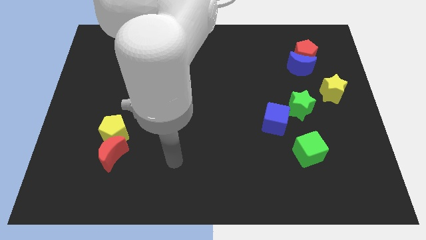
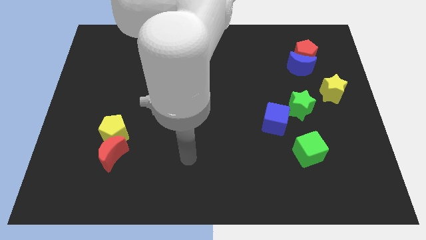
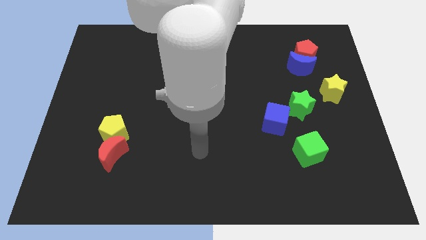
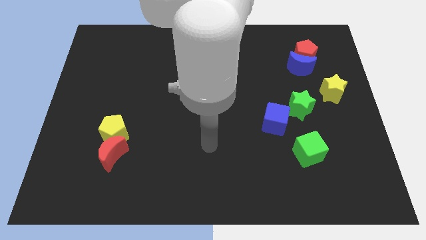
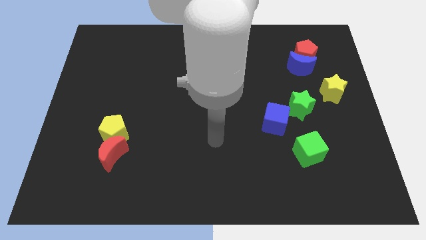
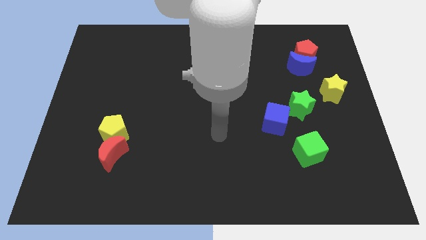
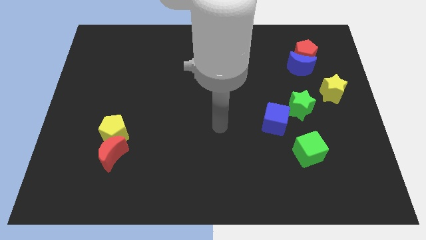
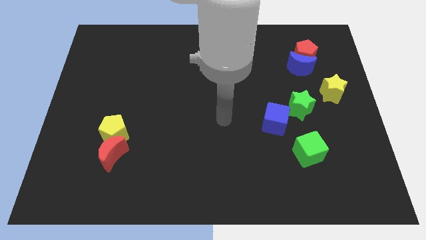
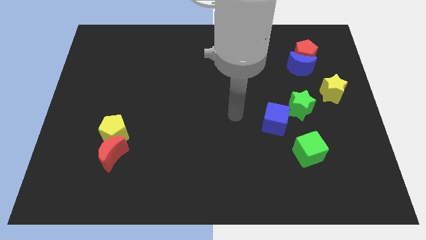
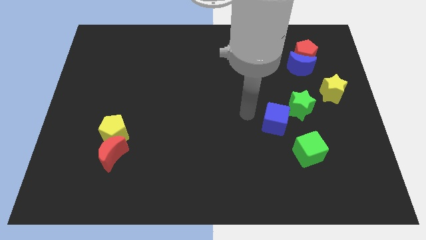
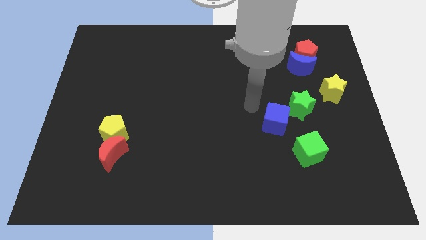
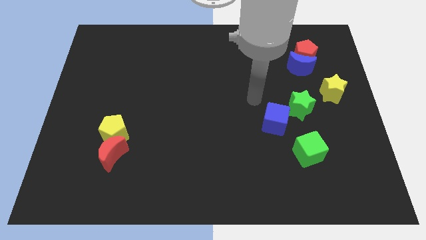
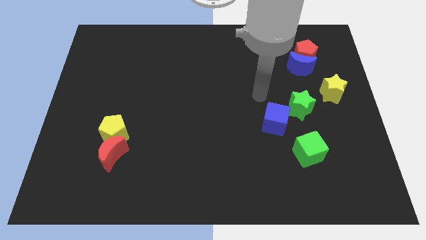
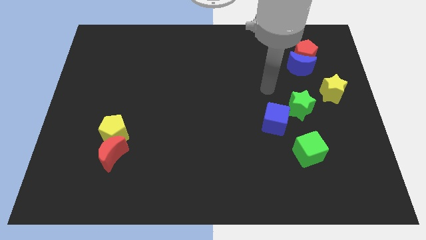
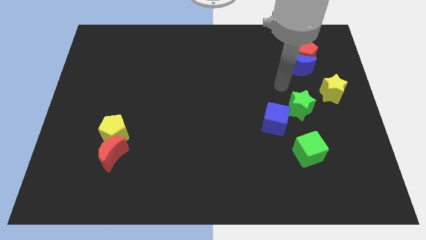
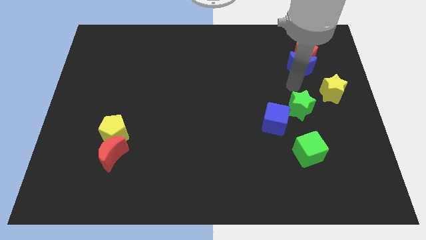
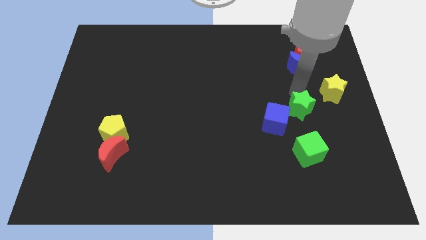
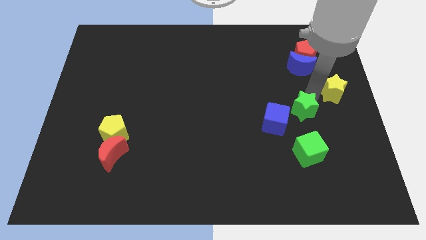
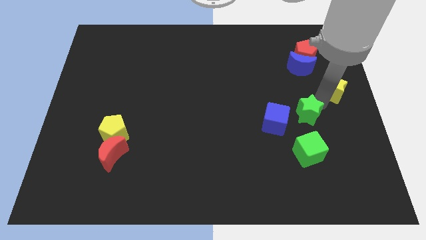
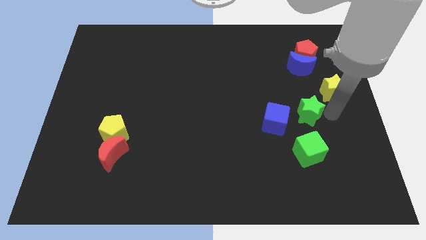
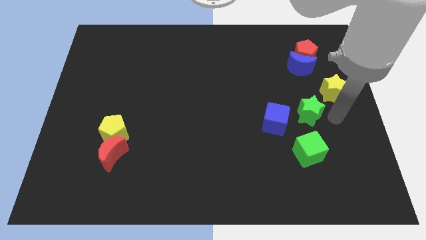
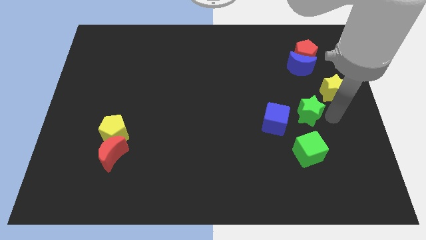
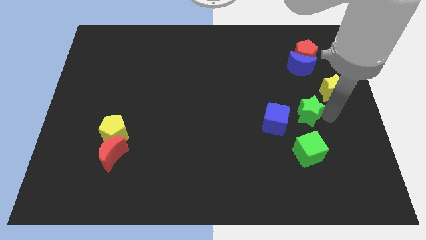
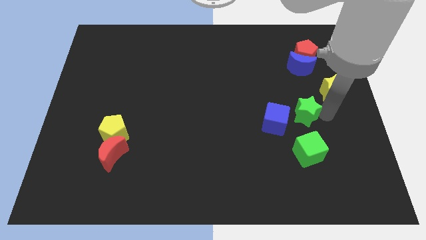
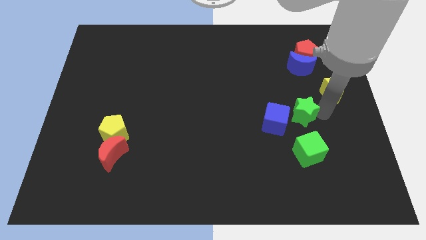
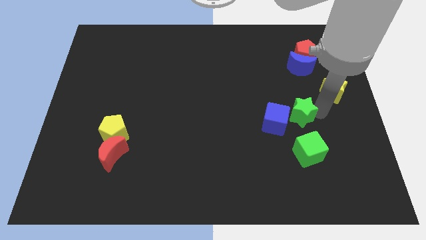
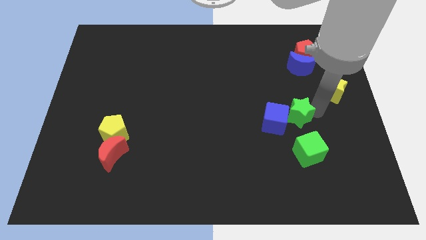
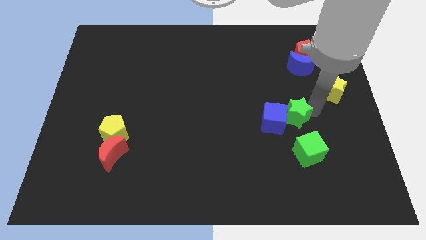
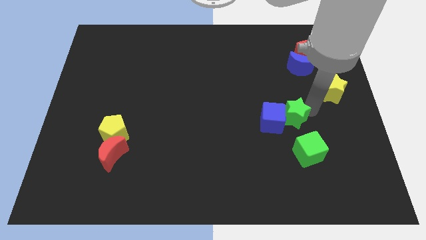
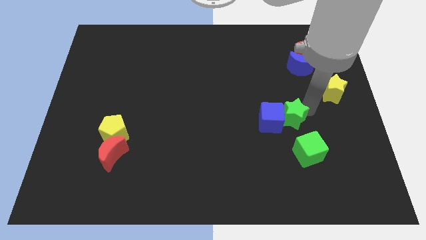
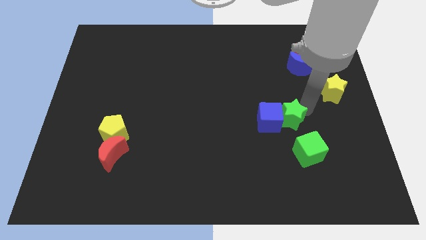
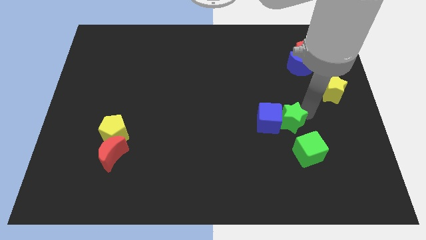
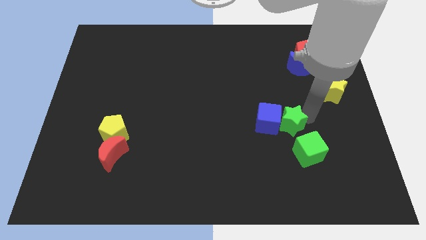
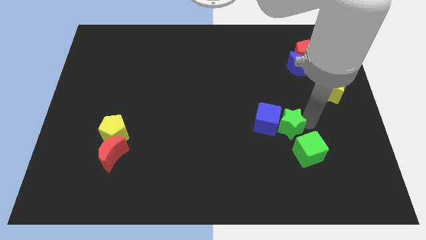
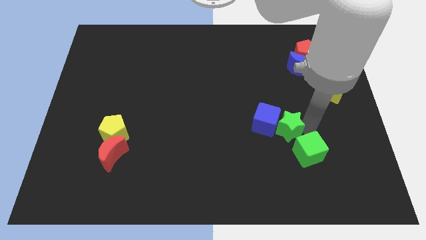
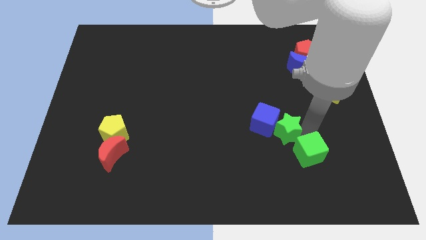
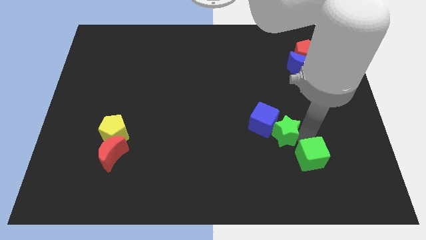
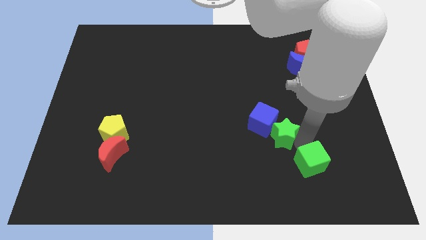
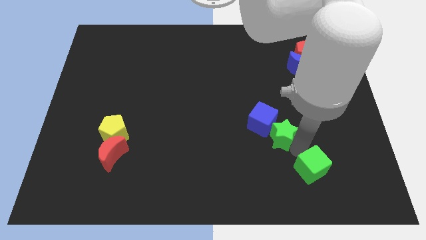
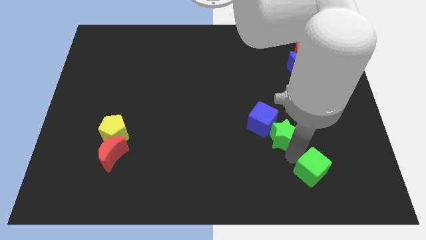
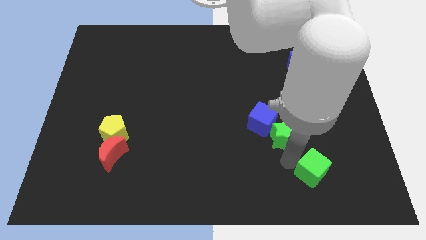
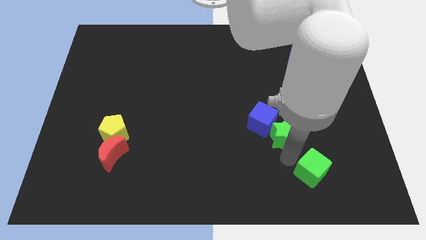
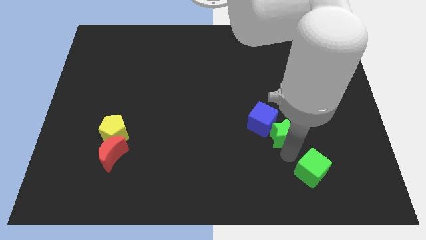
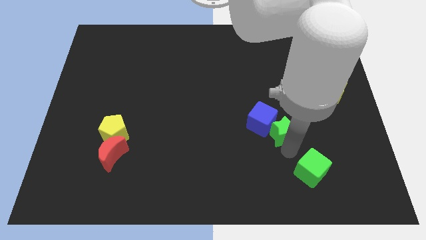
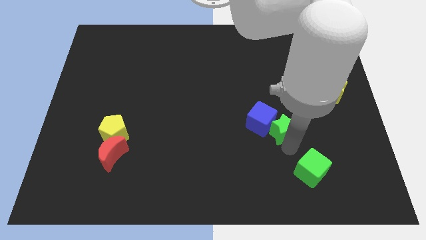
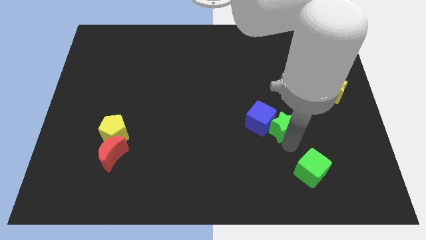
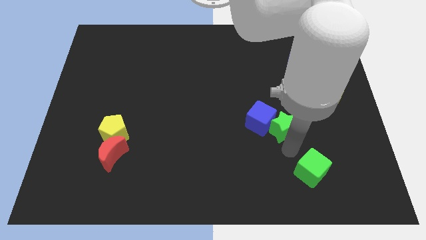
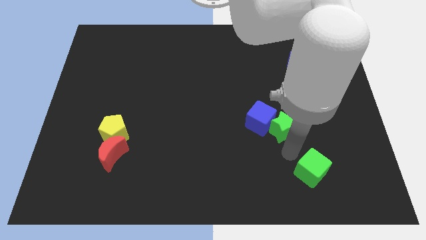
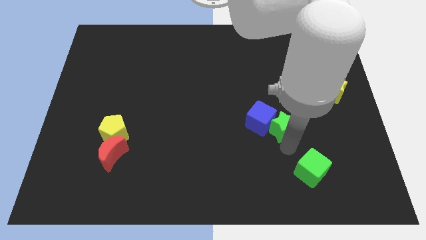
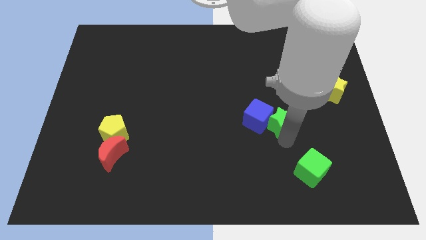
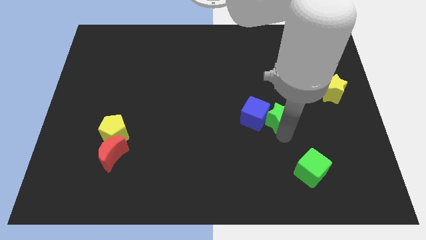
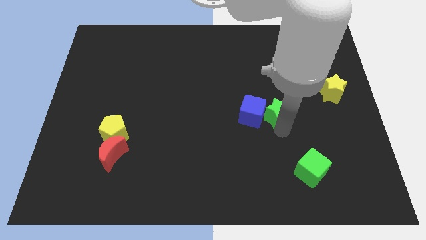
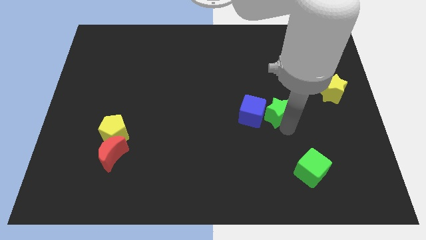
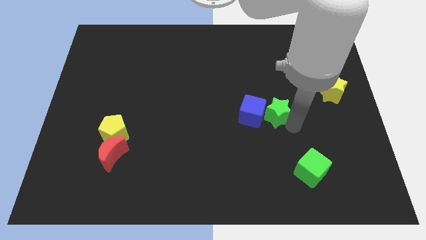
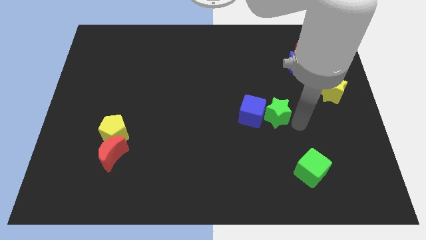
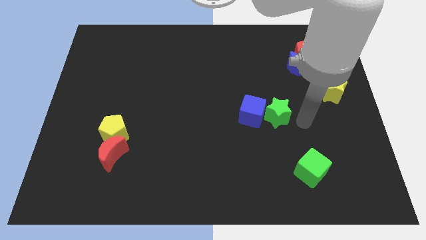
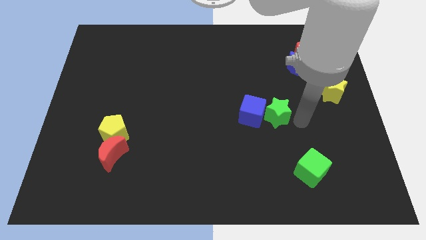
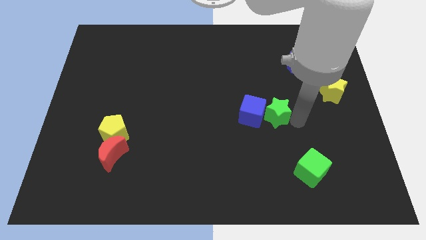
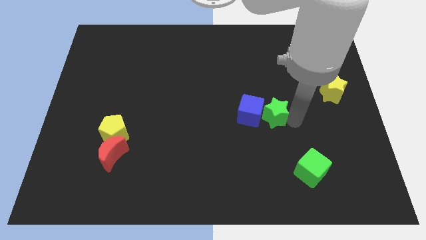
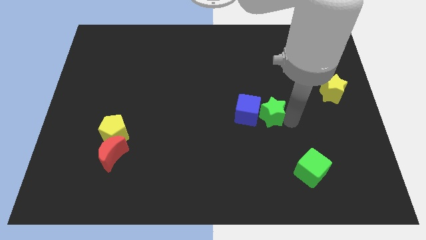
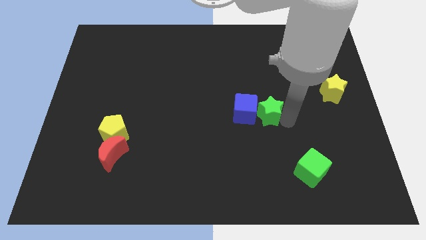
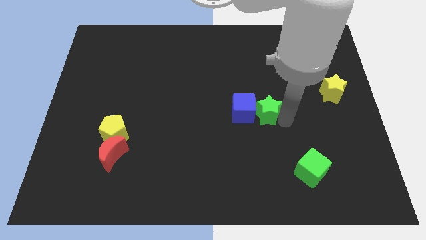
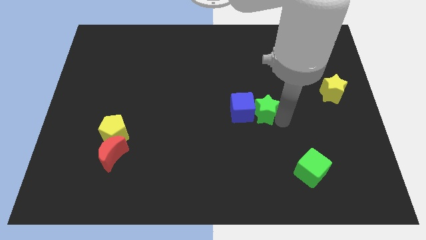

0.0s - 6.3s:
move the green star to the center

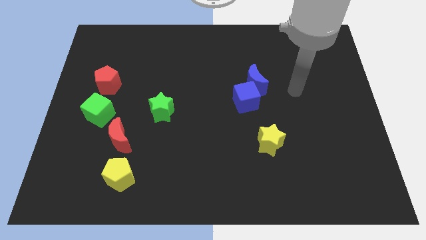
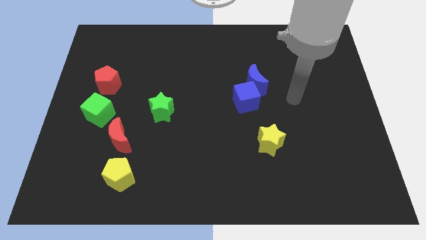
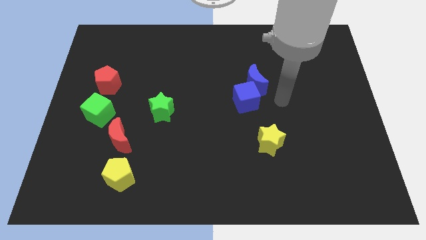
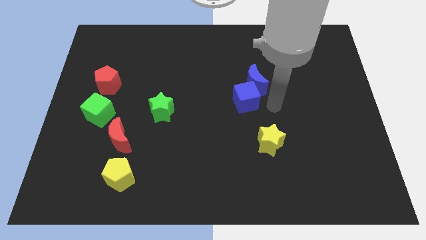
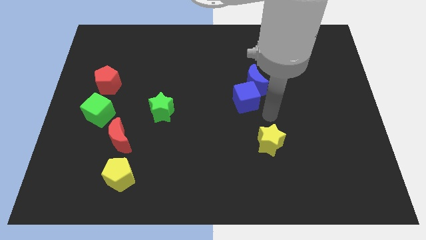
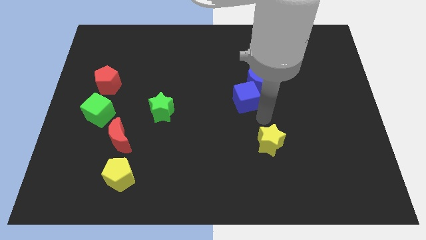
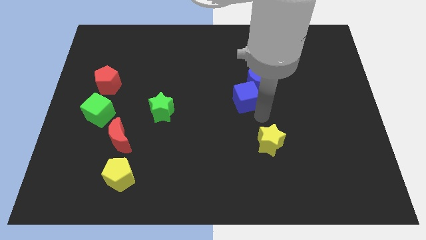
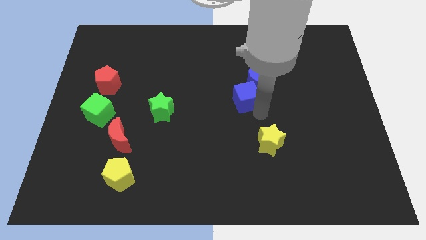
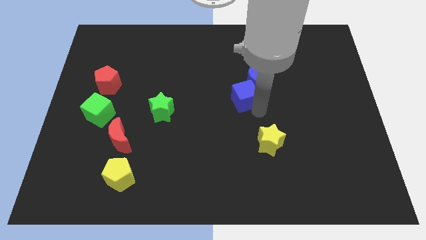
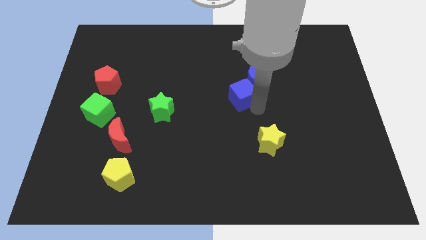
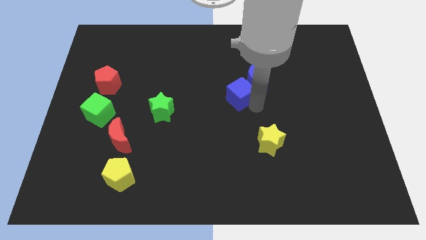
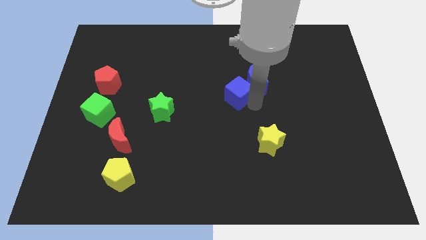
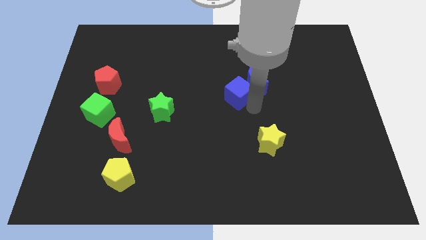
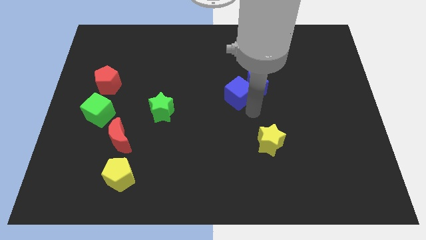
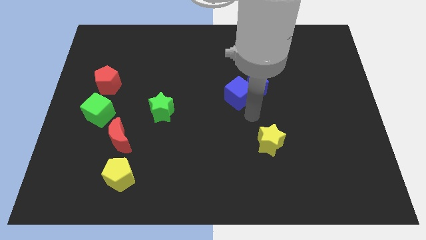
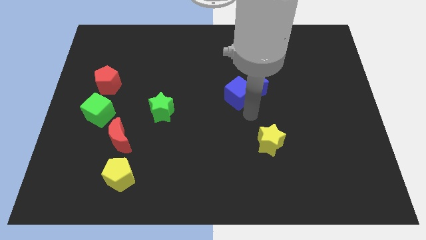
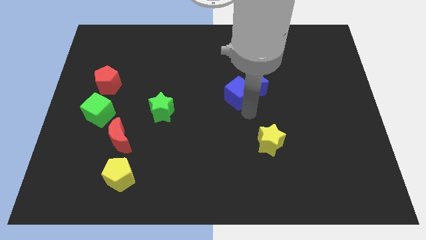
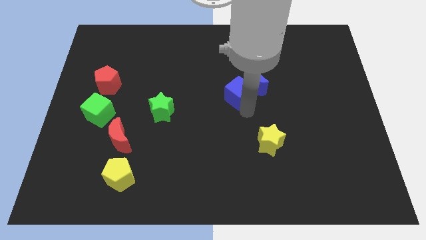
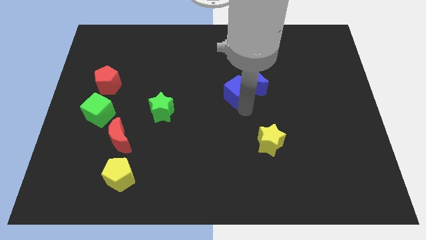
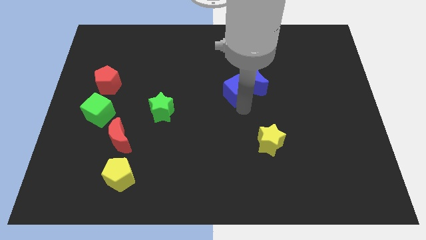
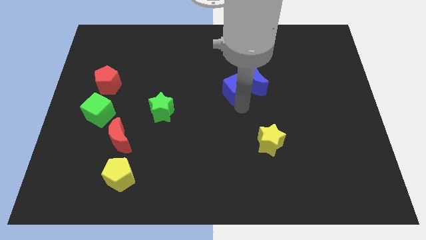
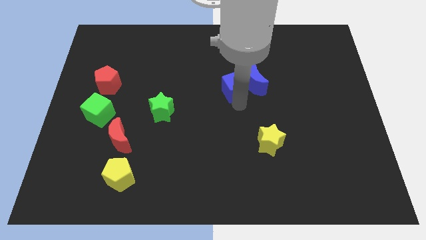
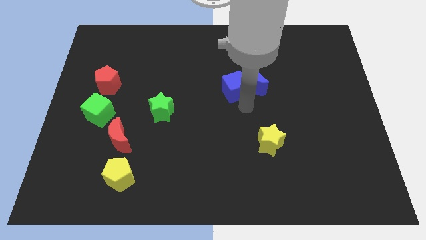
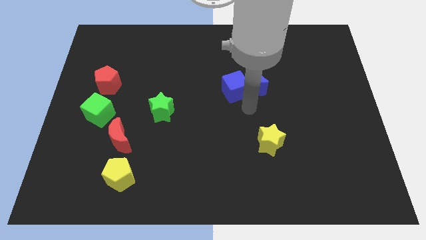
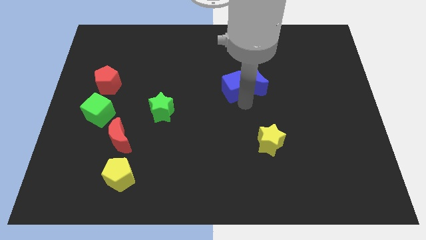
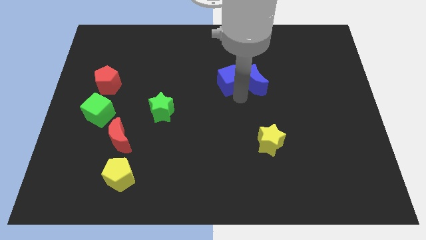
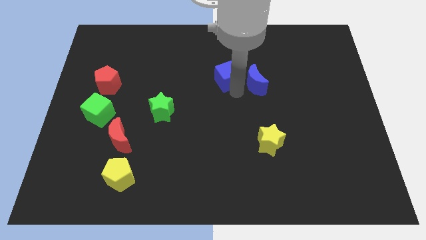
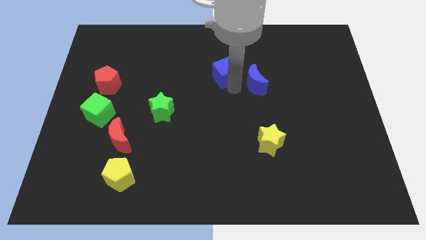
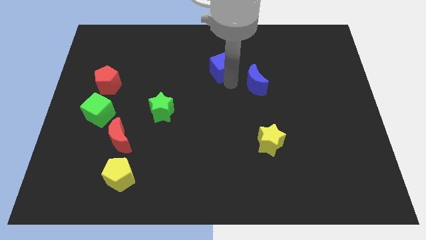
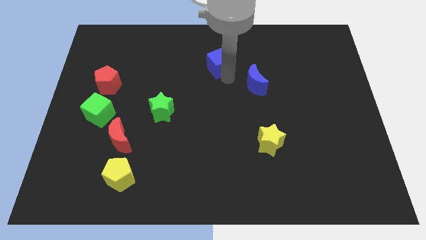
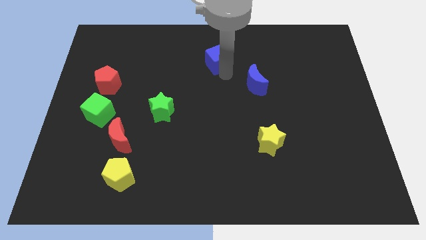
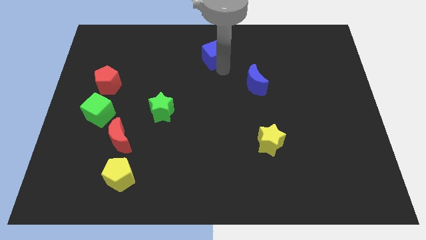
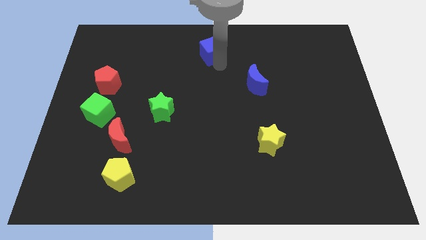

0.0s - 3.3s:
push the blue cube to the towards your base
